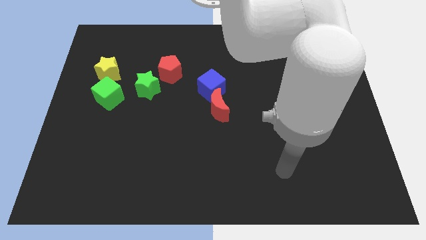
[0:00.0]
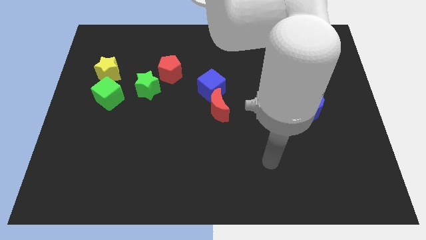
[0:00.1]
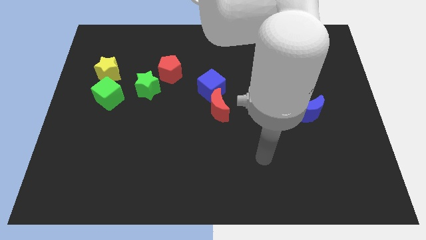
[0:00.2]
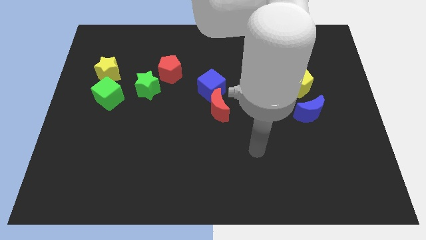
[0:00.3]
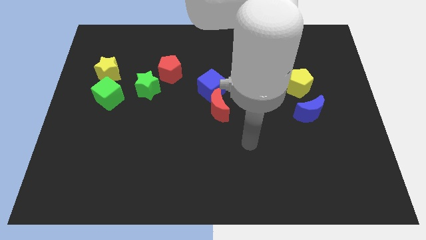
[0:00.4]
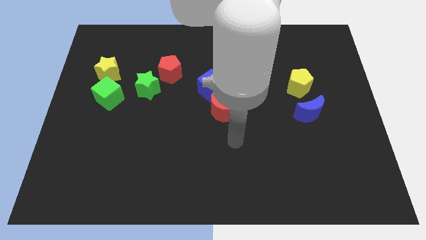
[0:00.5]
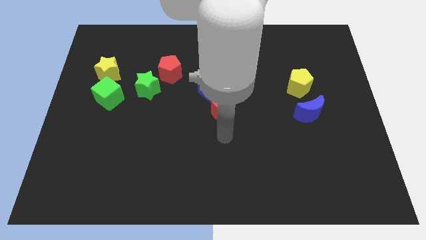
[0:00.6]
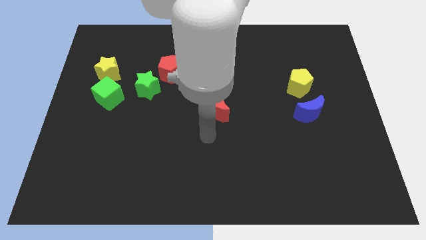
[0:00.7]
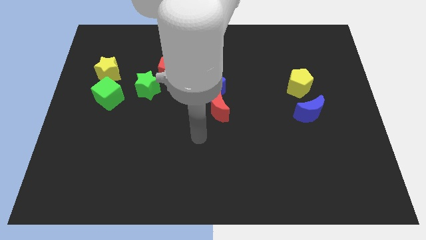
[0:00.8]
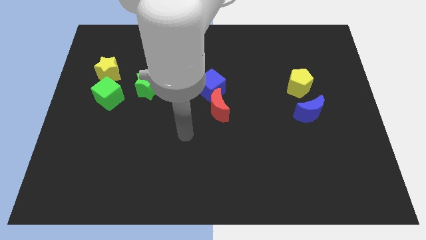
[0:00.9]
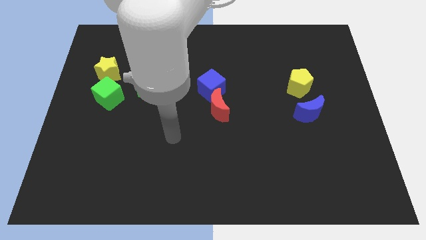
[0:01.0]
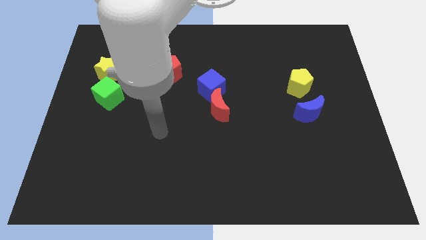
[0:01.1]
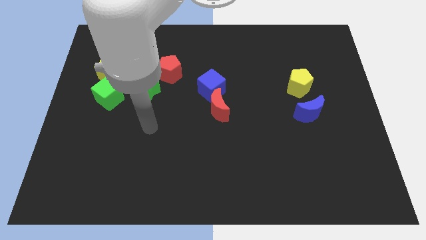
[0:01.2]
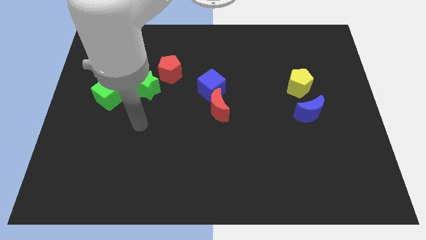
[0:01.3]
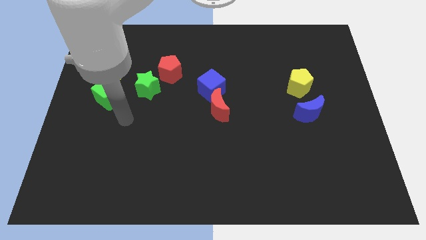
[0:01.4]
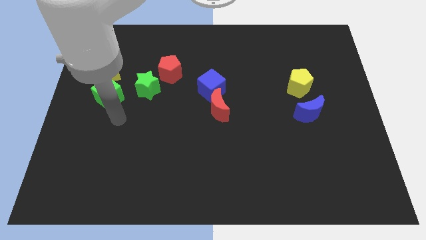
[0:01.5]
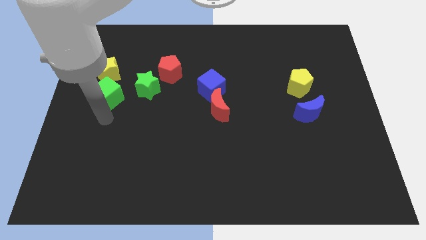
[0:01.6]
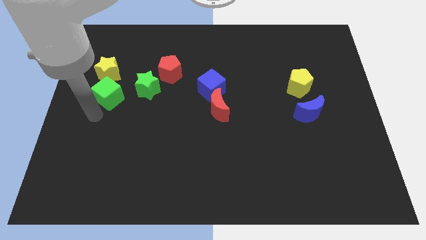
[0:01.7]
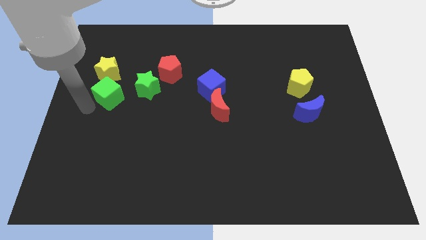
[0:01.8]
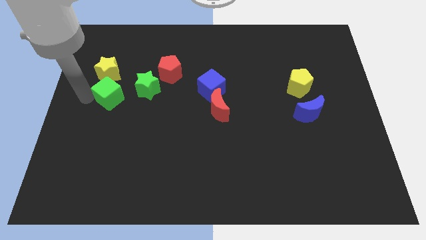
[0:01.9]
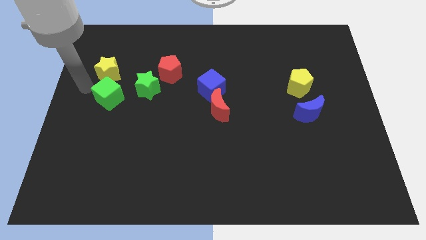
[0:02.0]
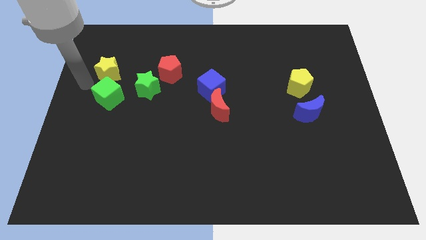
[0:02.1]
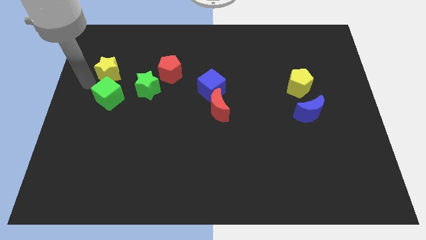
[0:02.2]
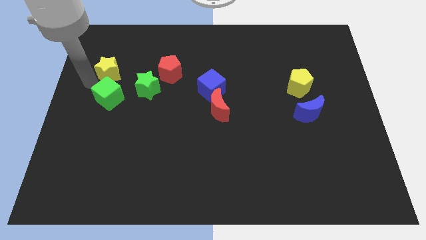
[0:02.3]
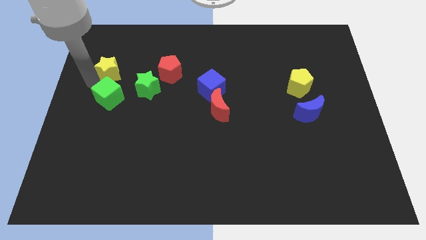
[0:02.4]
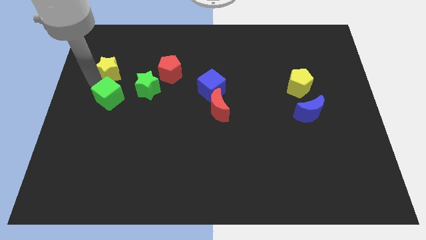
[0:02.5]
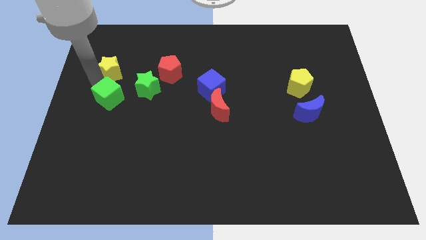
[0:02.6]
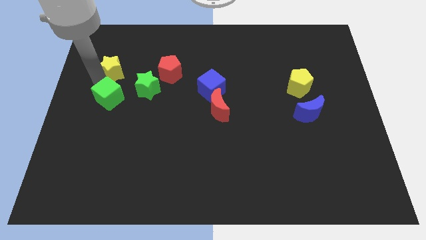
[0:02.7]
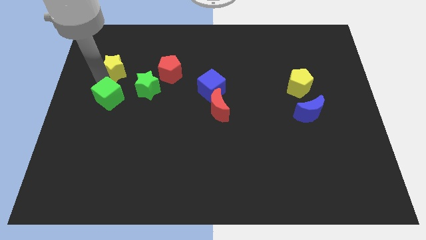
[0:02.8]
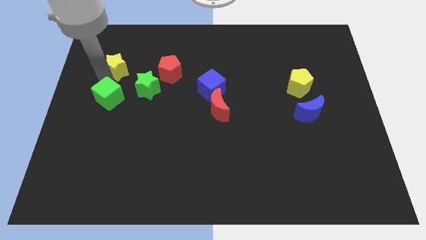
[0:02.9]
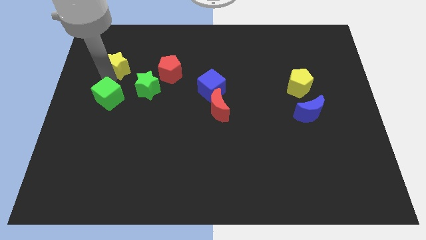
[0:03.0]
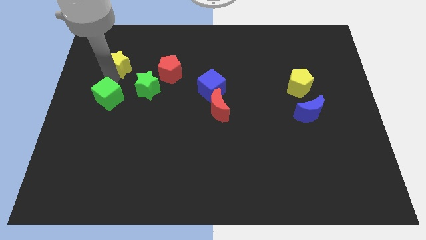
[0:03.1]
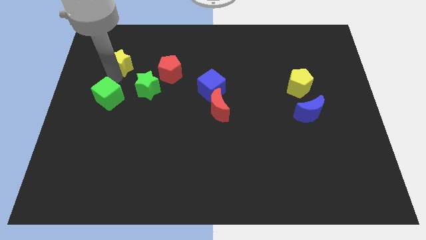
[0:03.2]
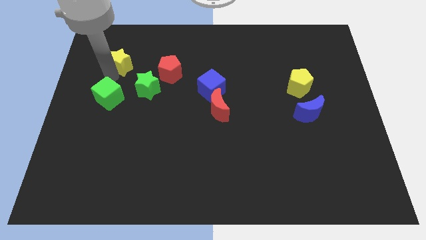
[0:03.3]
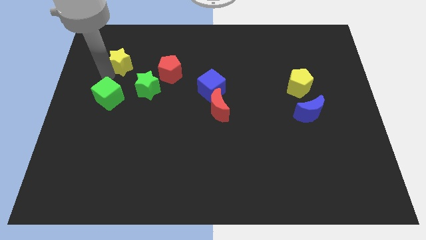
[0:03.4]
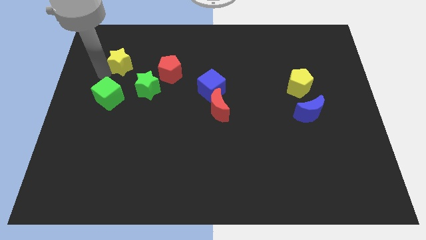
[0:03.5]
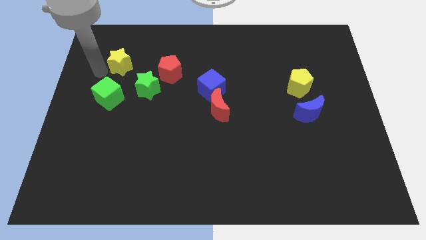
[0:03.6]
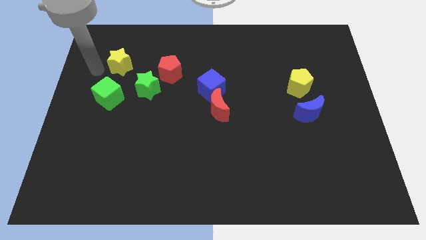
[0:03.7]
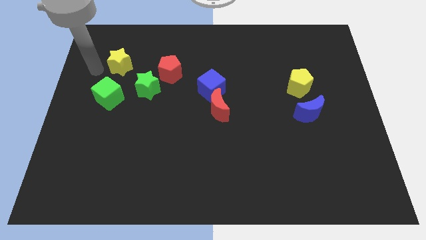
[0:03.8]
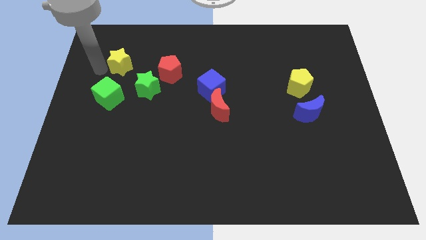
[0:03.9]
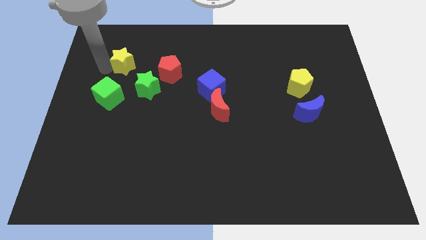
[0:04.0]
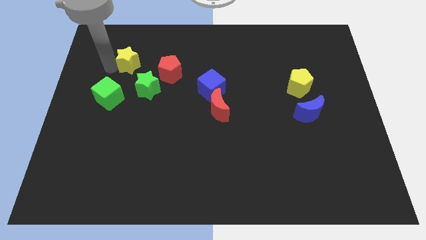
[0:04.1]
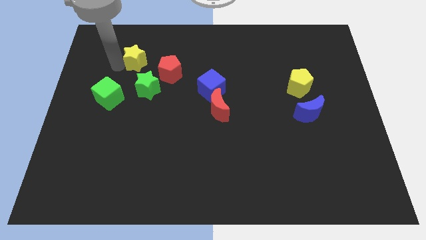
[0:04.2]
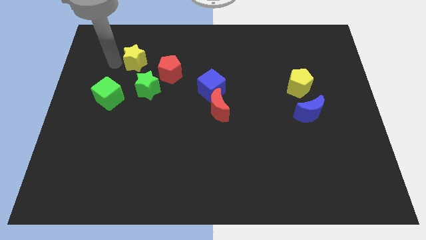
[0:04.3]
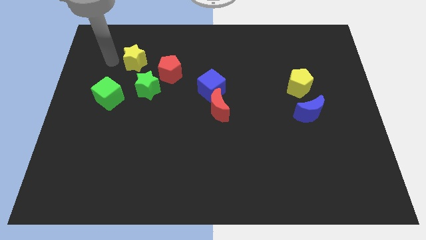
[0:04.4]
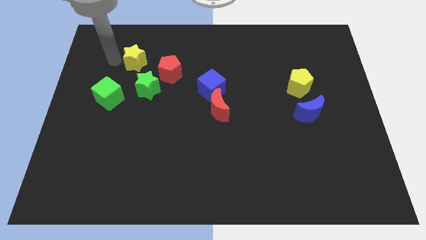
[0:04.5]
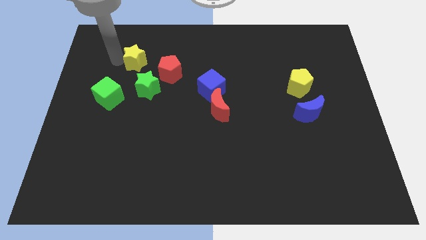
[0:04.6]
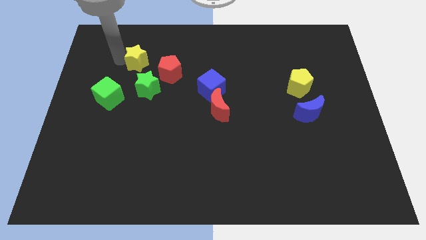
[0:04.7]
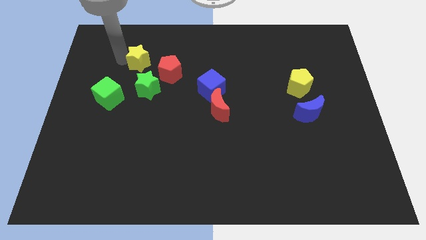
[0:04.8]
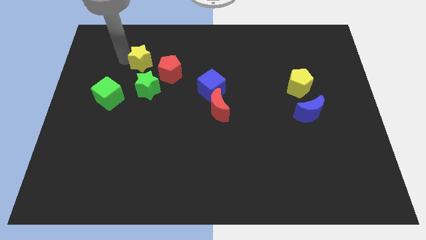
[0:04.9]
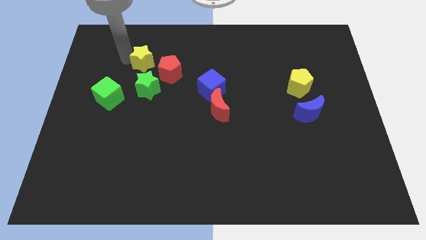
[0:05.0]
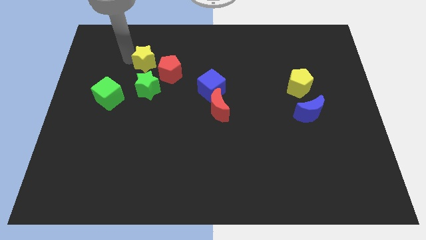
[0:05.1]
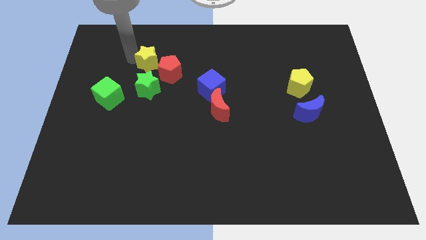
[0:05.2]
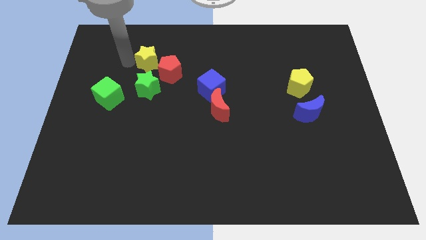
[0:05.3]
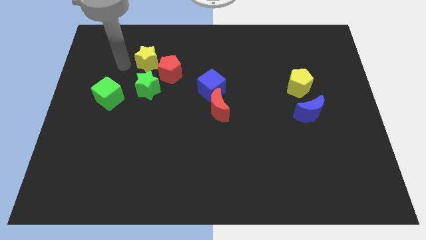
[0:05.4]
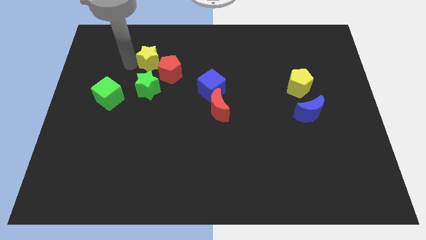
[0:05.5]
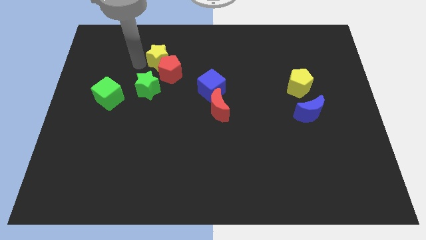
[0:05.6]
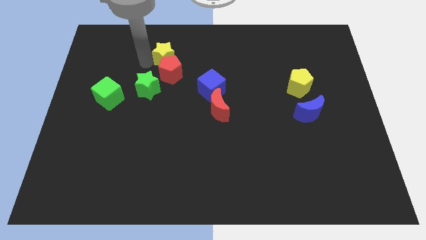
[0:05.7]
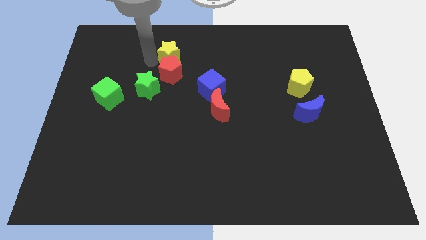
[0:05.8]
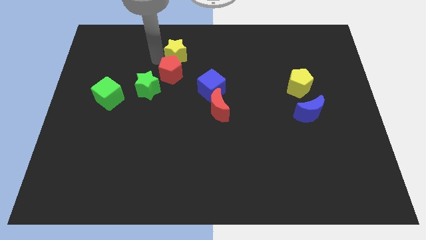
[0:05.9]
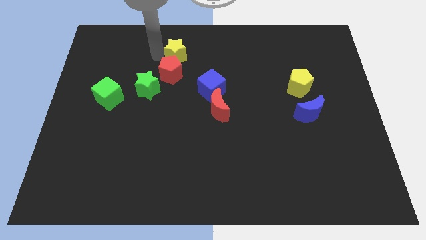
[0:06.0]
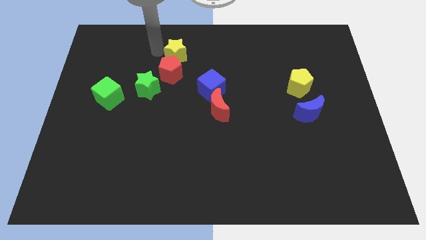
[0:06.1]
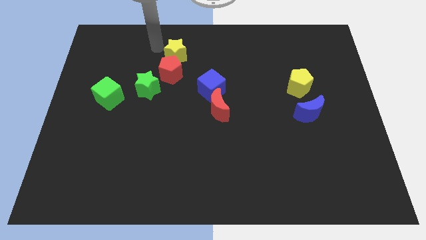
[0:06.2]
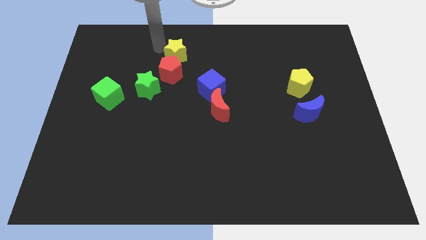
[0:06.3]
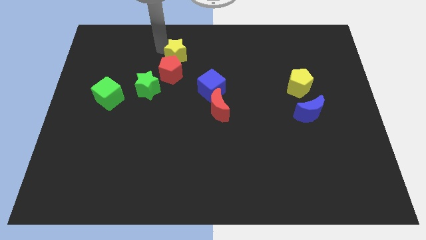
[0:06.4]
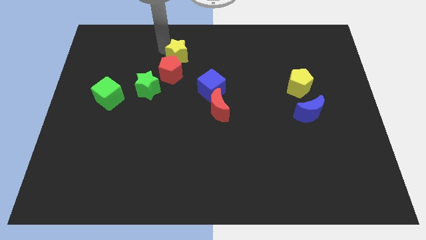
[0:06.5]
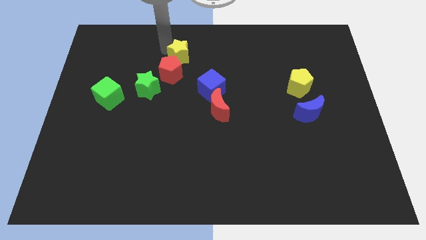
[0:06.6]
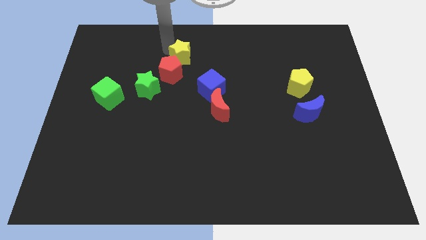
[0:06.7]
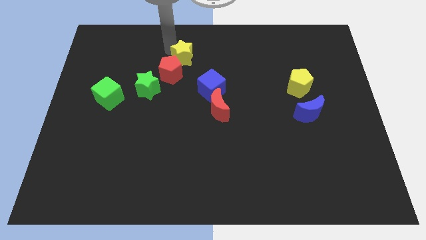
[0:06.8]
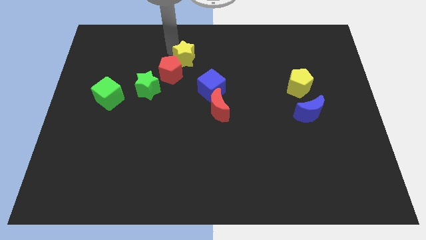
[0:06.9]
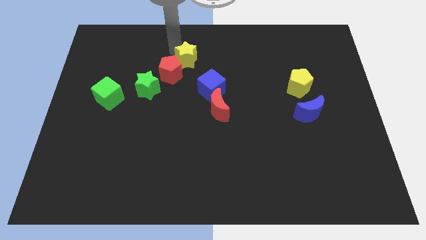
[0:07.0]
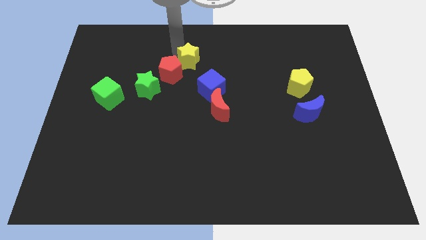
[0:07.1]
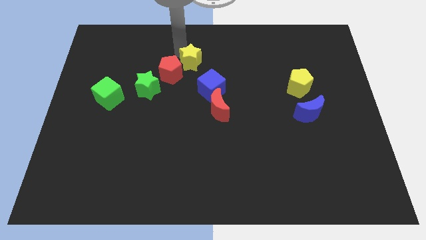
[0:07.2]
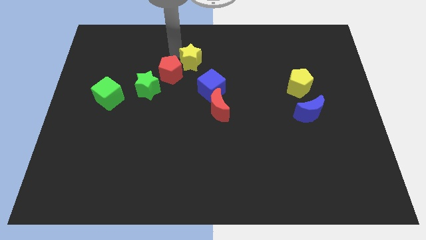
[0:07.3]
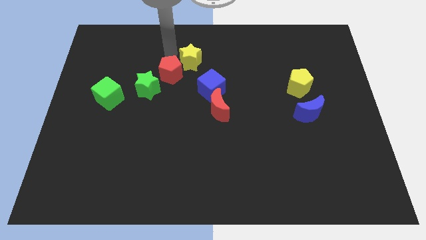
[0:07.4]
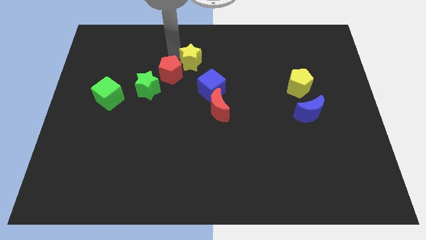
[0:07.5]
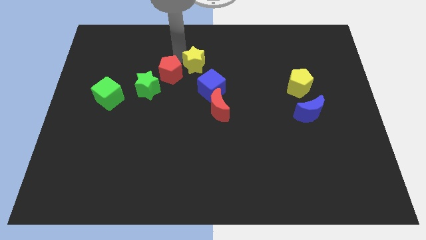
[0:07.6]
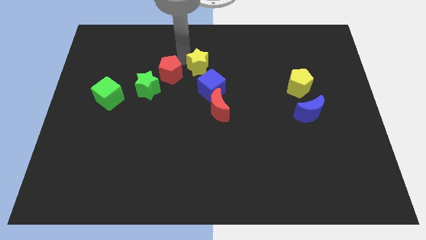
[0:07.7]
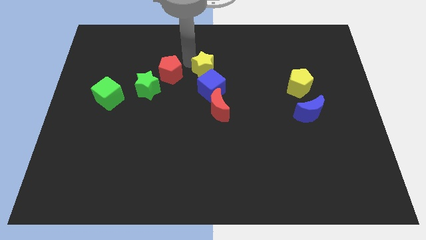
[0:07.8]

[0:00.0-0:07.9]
slide the yellow star to the top side of the red moon

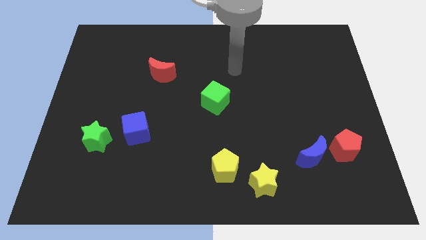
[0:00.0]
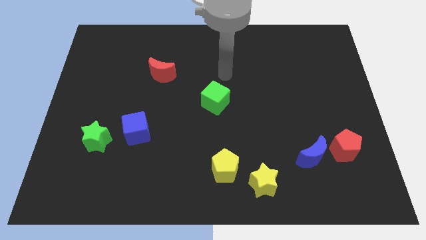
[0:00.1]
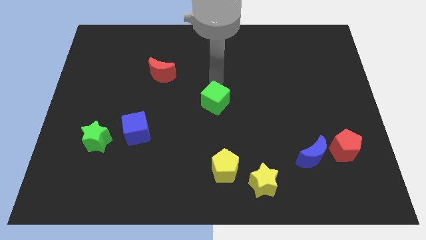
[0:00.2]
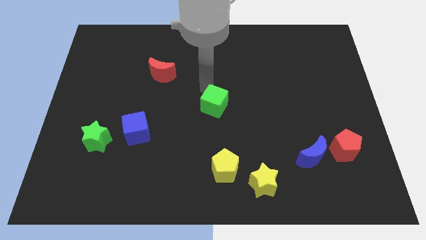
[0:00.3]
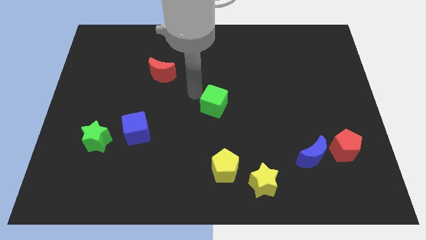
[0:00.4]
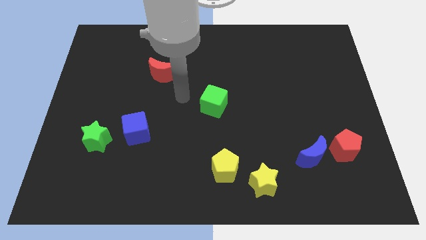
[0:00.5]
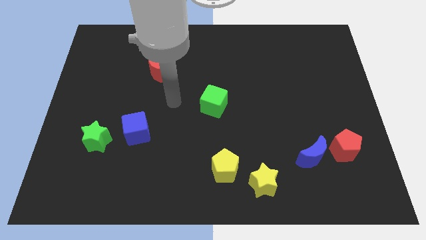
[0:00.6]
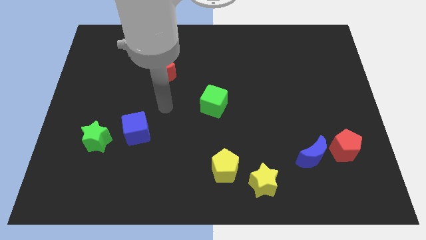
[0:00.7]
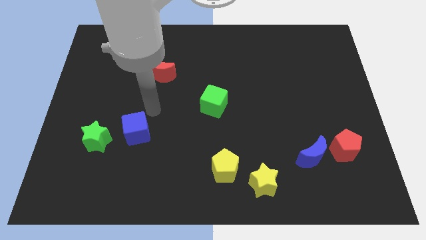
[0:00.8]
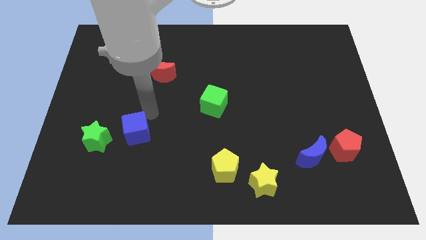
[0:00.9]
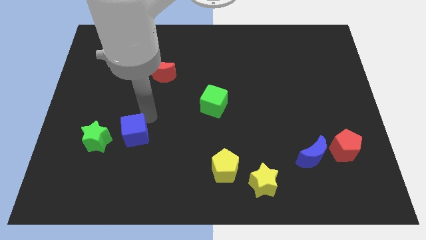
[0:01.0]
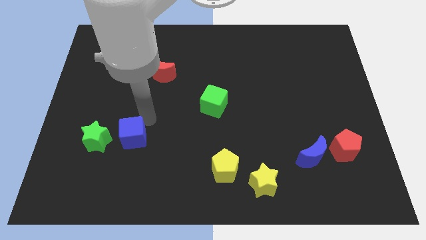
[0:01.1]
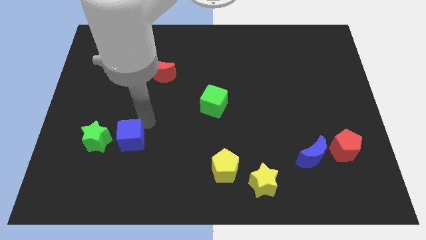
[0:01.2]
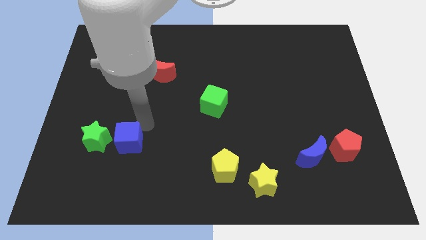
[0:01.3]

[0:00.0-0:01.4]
move the blue cube to the bottom right side of the green star
